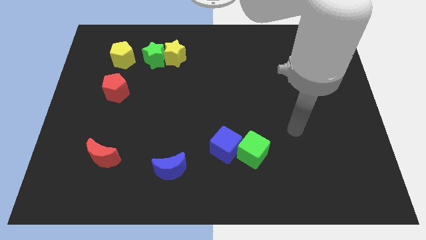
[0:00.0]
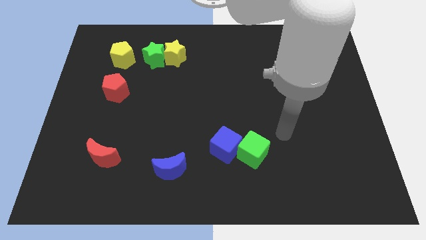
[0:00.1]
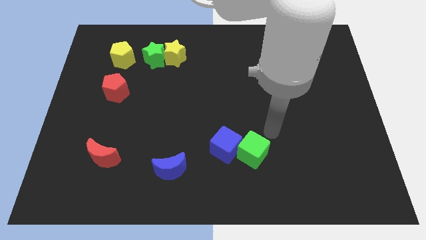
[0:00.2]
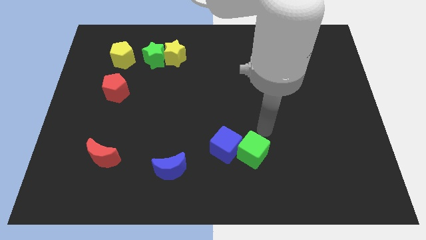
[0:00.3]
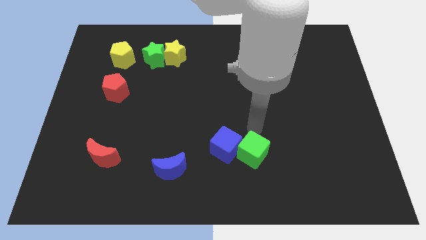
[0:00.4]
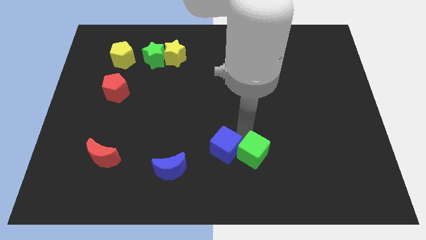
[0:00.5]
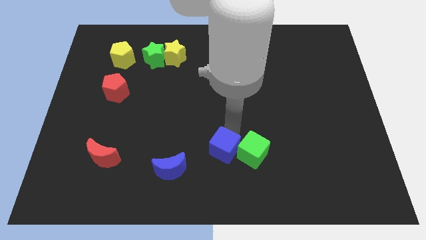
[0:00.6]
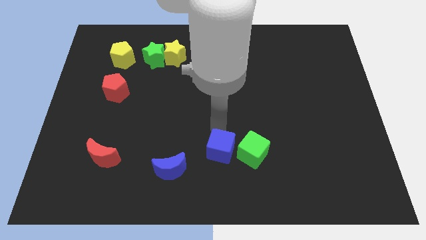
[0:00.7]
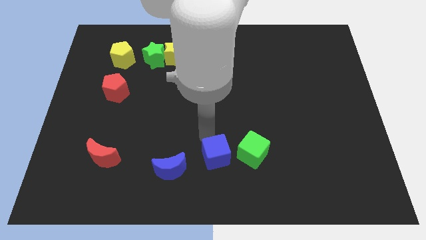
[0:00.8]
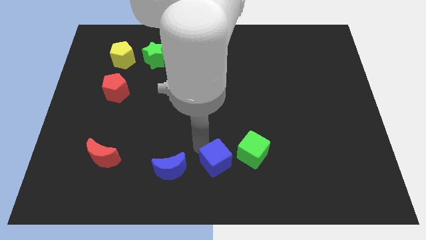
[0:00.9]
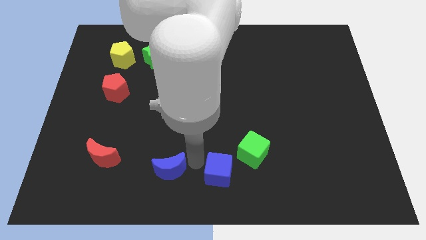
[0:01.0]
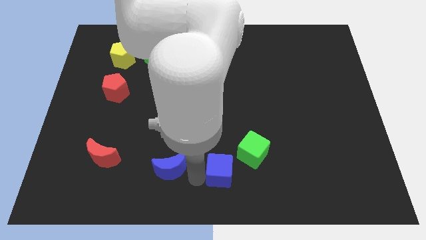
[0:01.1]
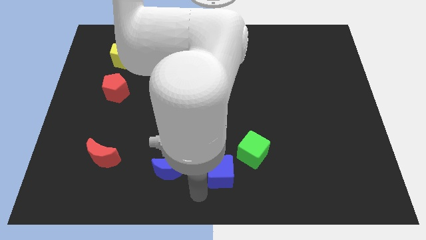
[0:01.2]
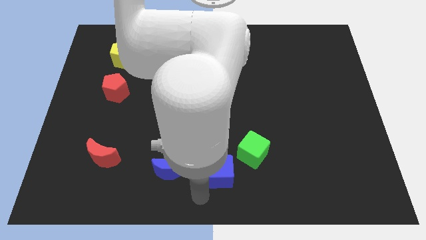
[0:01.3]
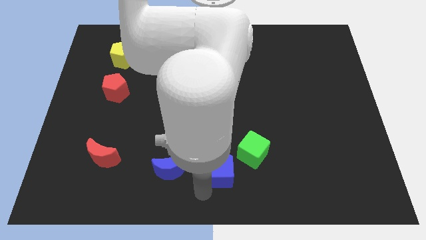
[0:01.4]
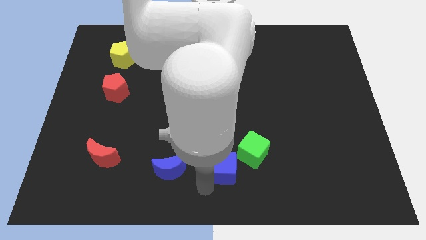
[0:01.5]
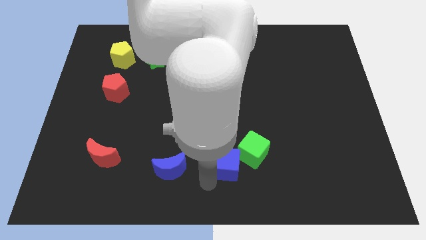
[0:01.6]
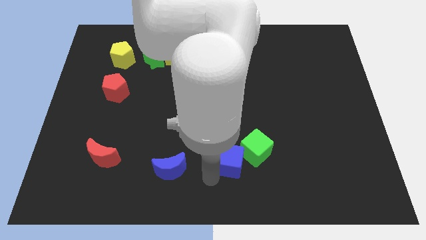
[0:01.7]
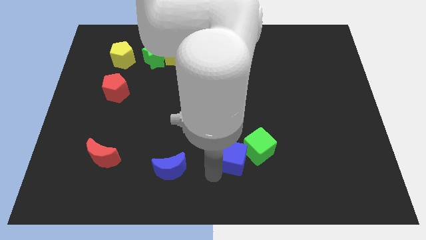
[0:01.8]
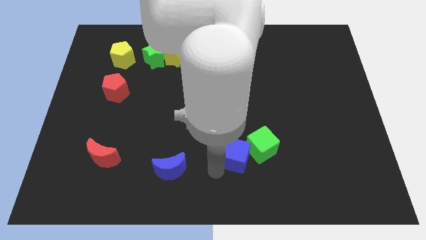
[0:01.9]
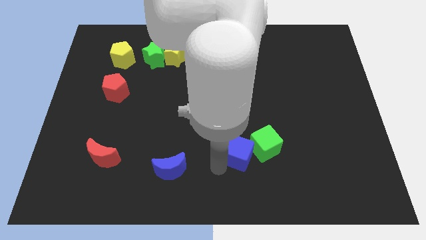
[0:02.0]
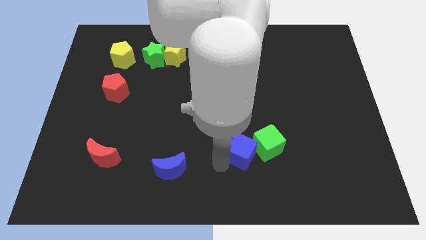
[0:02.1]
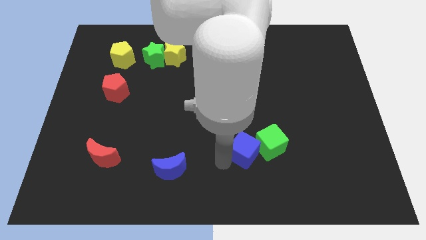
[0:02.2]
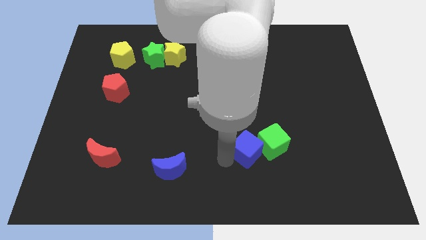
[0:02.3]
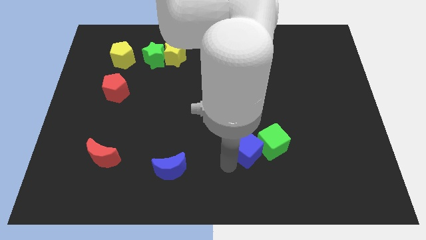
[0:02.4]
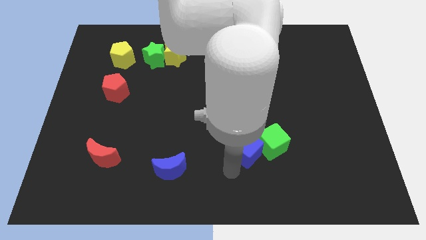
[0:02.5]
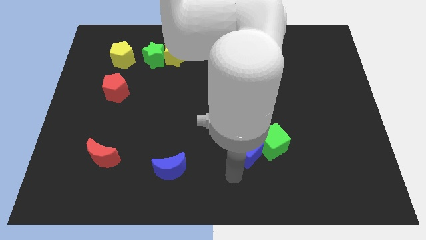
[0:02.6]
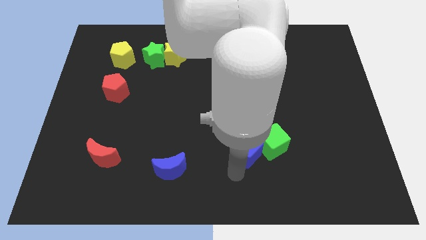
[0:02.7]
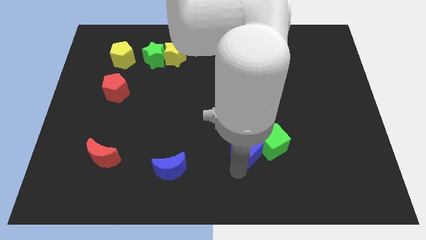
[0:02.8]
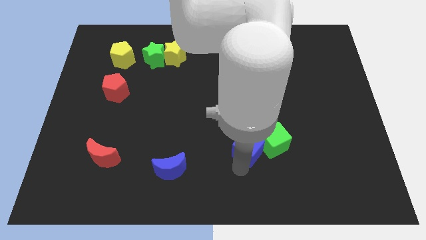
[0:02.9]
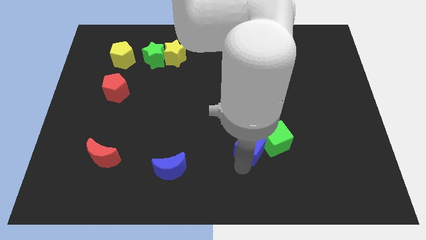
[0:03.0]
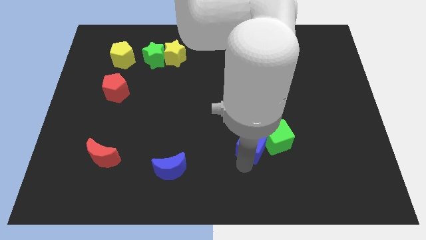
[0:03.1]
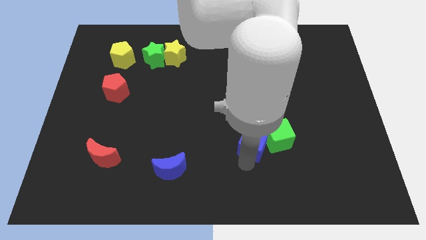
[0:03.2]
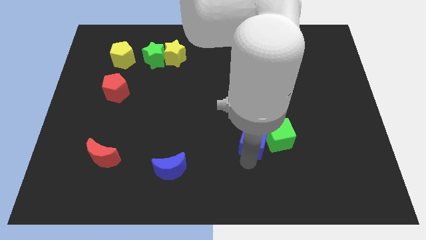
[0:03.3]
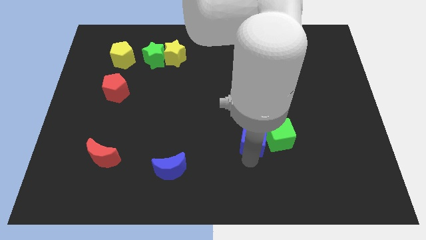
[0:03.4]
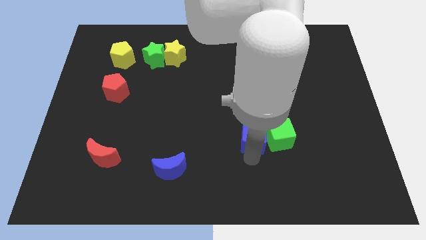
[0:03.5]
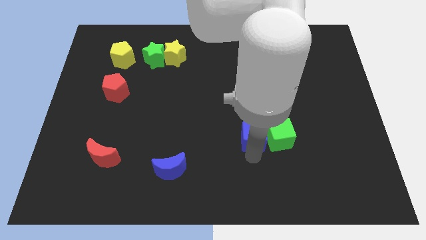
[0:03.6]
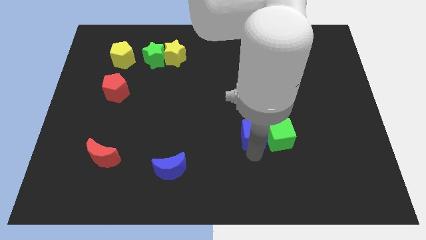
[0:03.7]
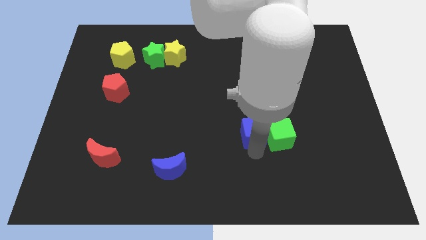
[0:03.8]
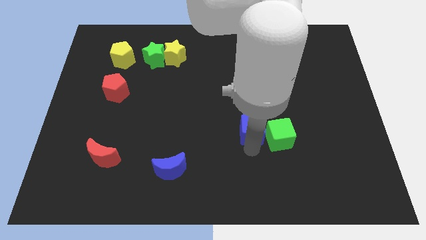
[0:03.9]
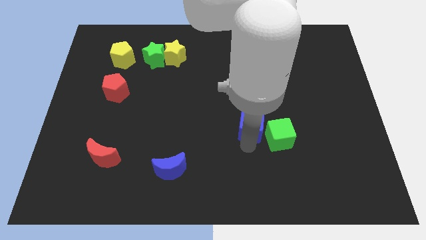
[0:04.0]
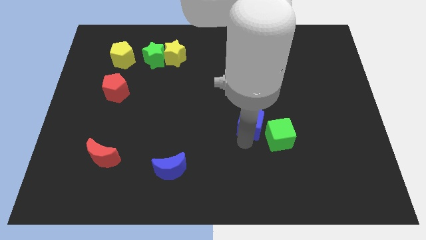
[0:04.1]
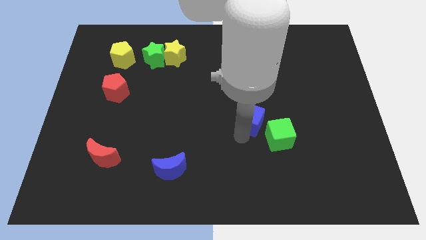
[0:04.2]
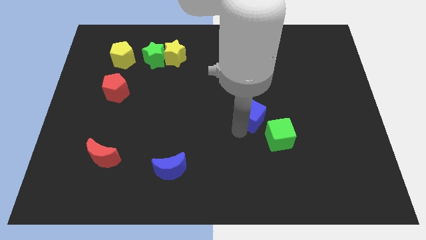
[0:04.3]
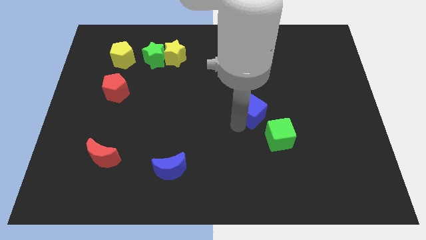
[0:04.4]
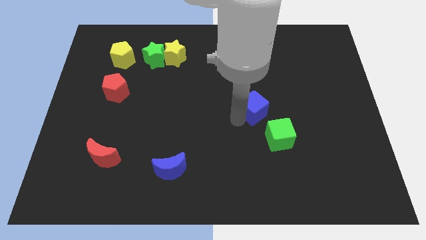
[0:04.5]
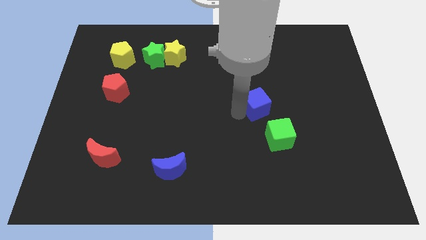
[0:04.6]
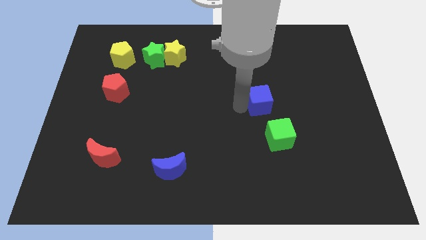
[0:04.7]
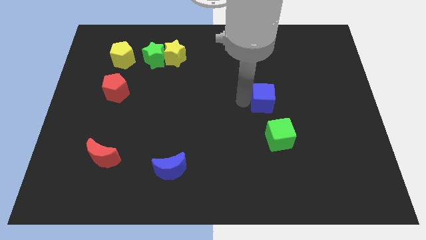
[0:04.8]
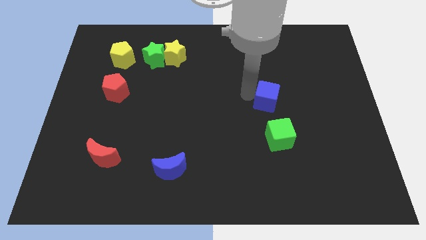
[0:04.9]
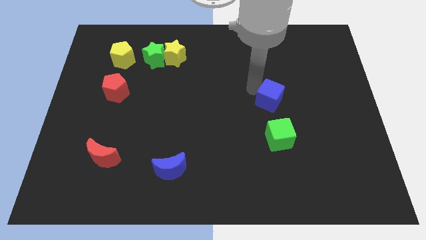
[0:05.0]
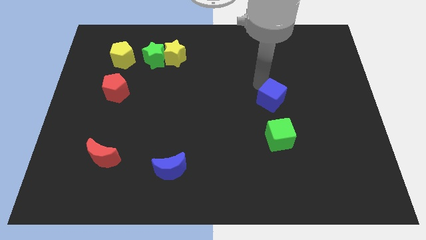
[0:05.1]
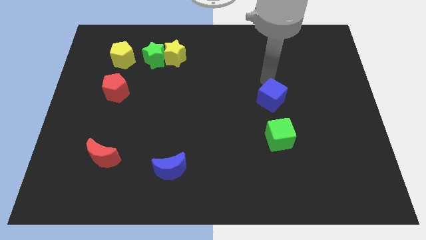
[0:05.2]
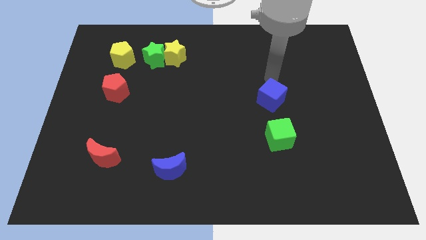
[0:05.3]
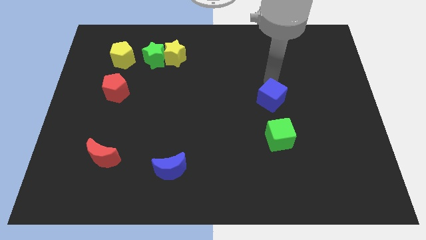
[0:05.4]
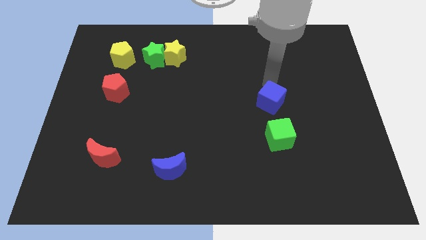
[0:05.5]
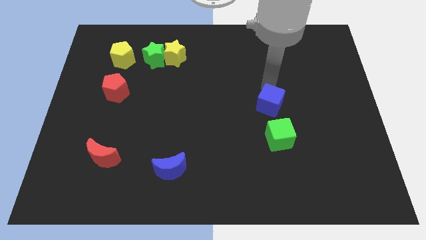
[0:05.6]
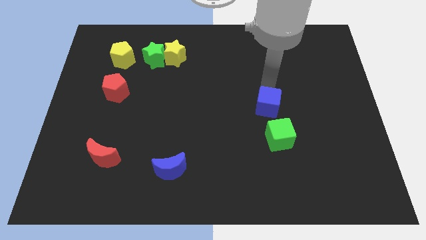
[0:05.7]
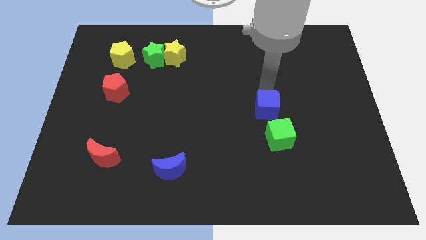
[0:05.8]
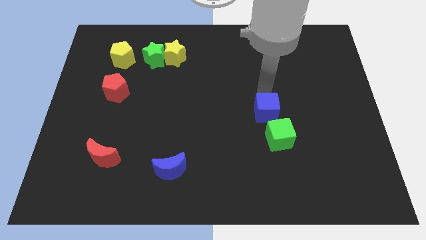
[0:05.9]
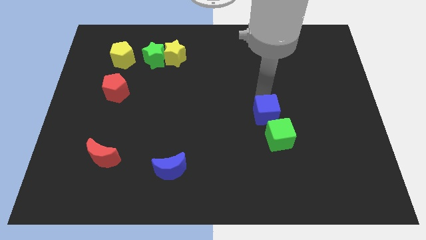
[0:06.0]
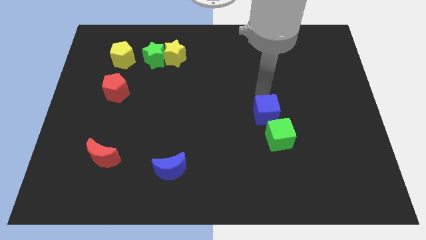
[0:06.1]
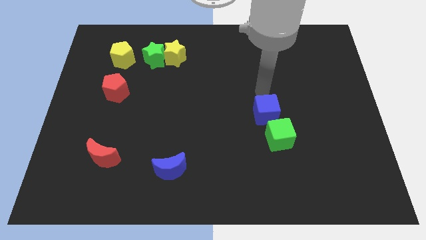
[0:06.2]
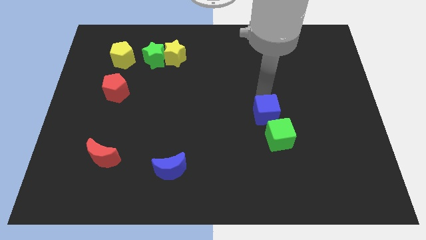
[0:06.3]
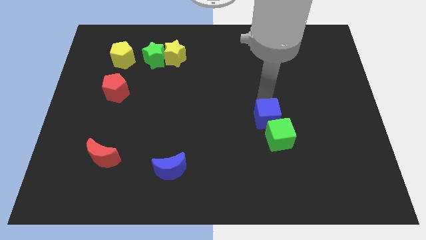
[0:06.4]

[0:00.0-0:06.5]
slide the blue cube to the right slightly

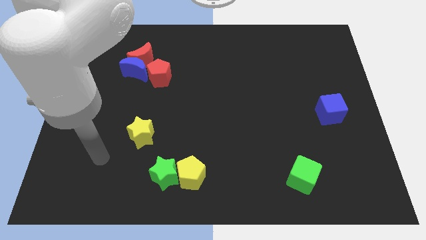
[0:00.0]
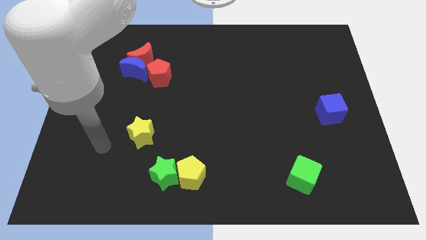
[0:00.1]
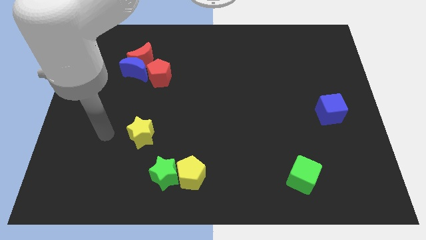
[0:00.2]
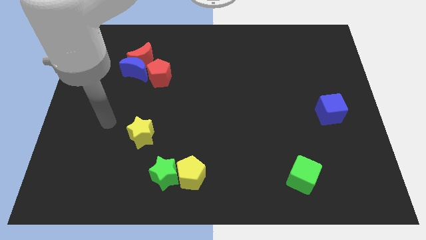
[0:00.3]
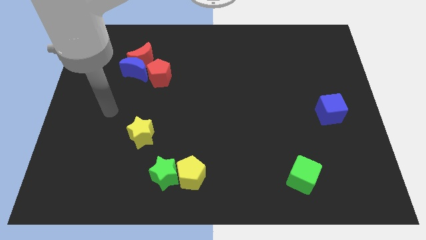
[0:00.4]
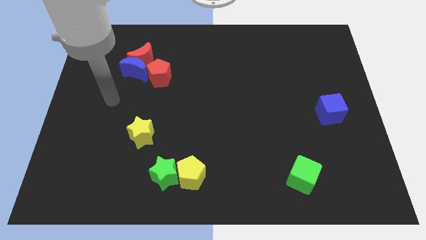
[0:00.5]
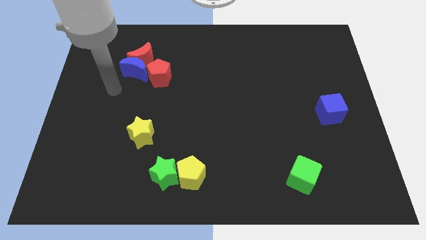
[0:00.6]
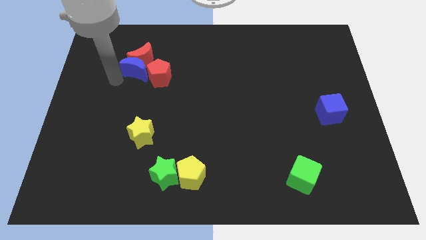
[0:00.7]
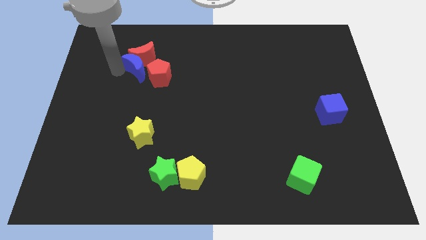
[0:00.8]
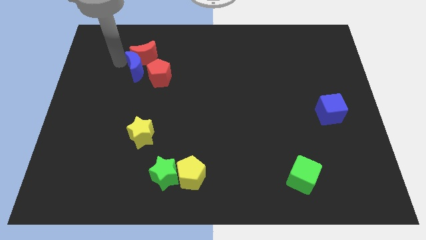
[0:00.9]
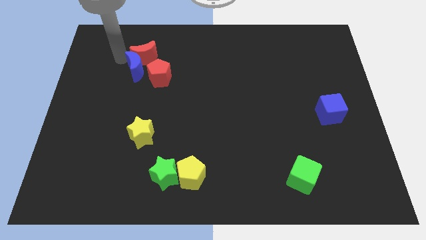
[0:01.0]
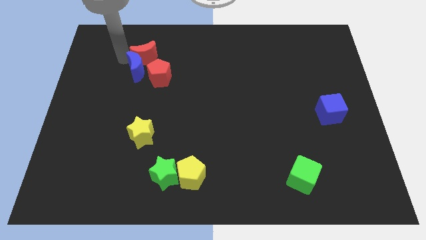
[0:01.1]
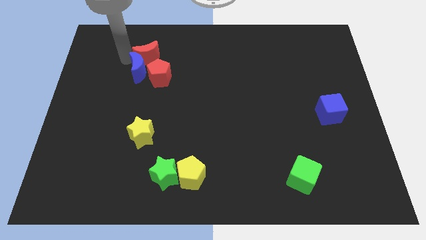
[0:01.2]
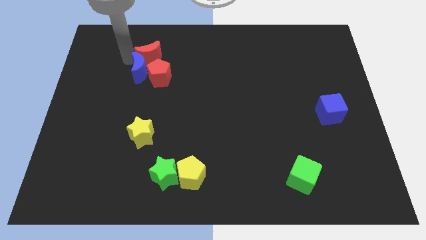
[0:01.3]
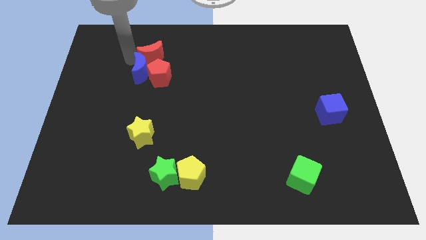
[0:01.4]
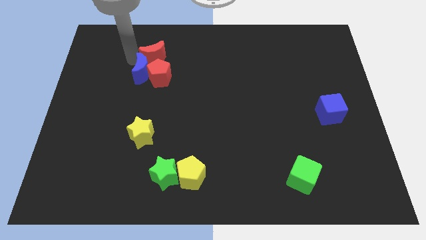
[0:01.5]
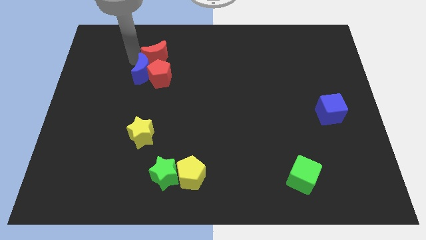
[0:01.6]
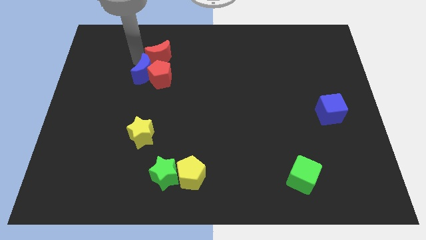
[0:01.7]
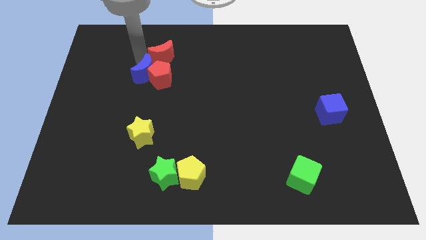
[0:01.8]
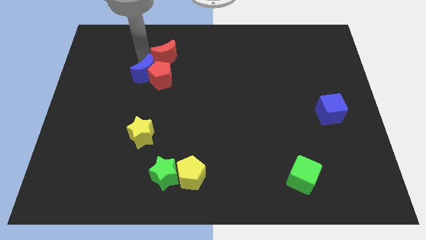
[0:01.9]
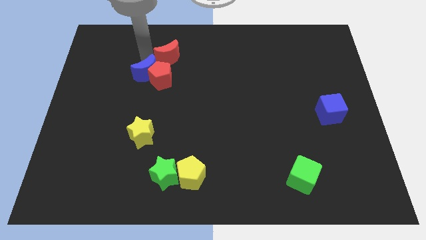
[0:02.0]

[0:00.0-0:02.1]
move the red moon a bit right
